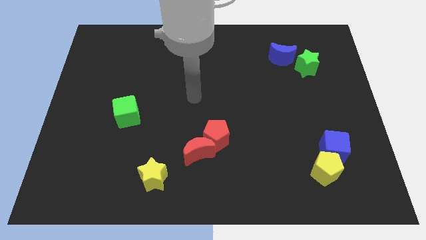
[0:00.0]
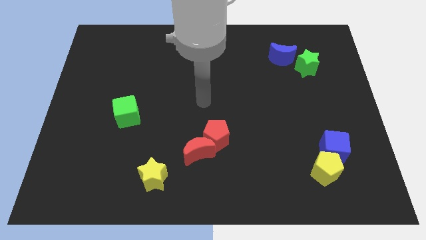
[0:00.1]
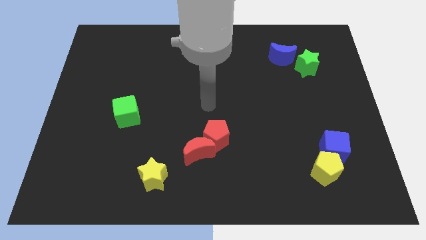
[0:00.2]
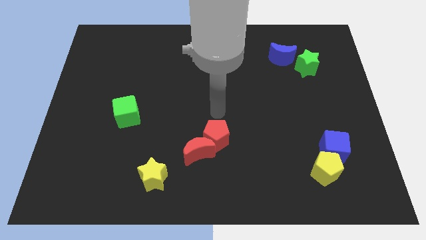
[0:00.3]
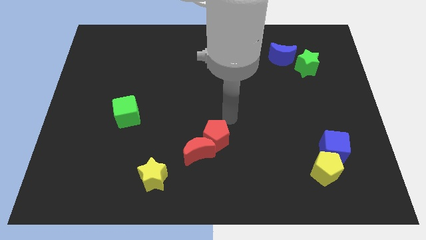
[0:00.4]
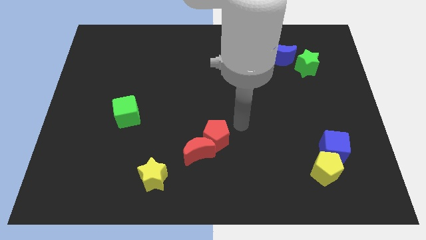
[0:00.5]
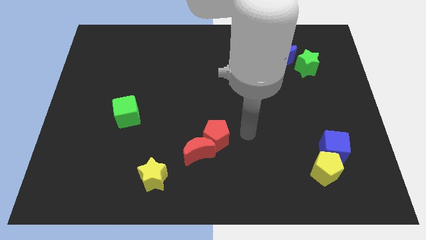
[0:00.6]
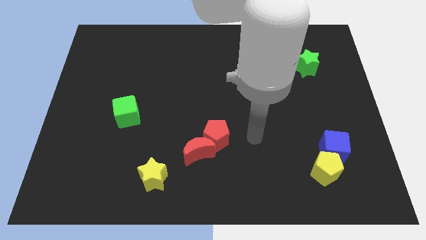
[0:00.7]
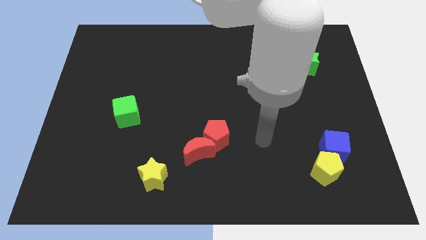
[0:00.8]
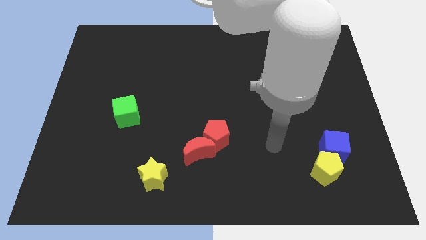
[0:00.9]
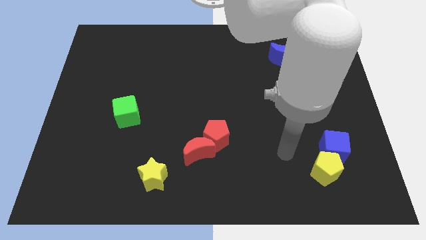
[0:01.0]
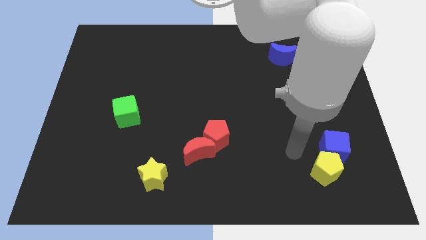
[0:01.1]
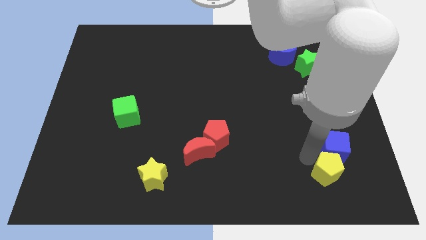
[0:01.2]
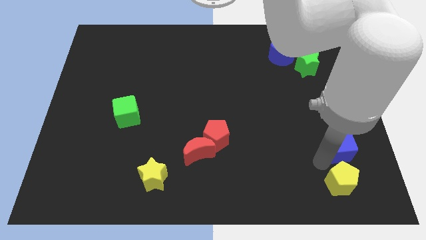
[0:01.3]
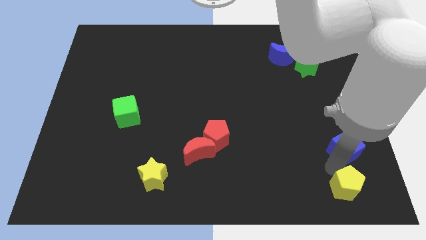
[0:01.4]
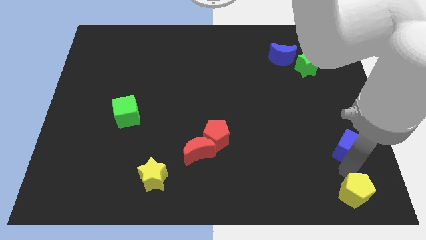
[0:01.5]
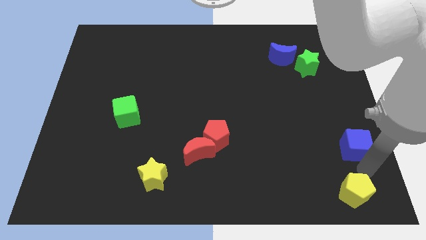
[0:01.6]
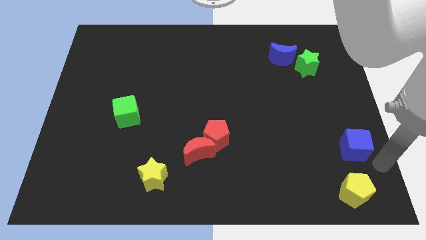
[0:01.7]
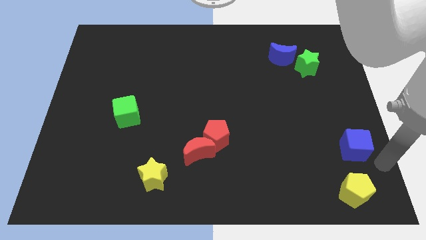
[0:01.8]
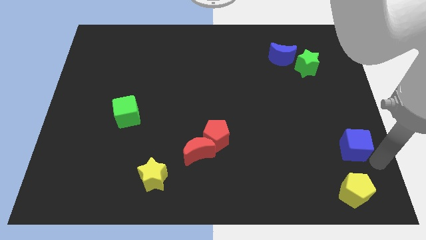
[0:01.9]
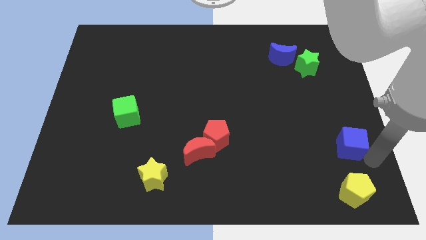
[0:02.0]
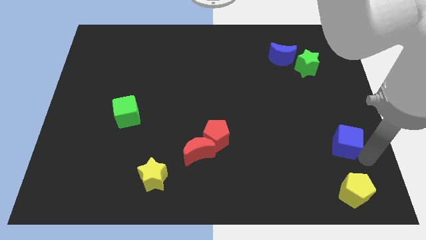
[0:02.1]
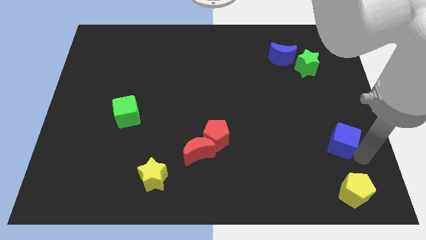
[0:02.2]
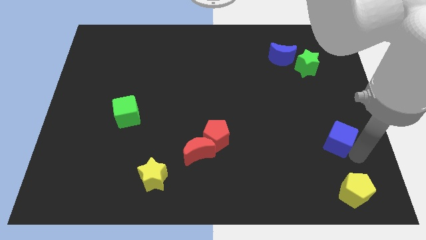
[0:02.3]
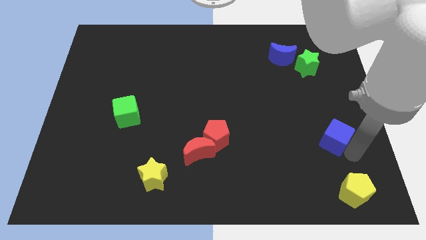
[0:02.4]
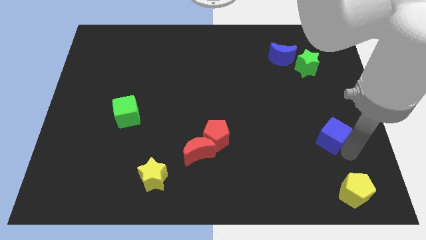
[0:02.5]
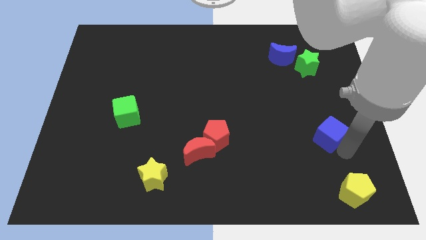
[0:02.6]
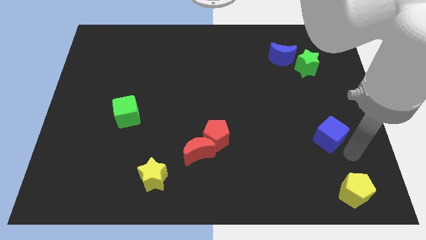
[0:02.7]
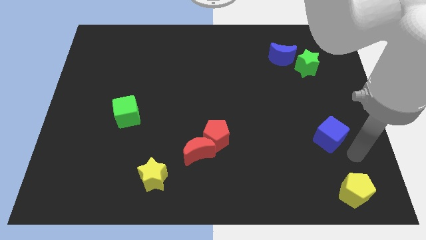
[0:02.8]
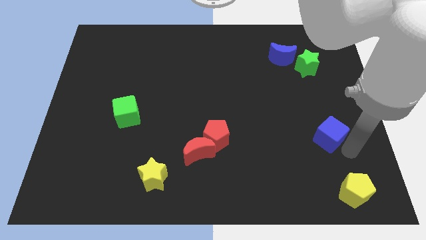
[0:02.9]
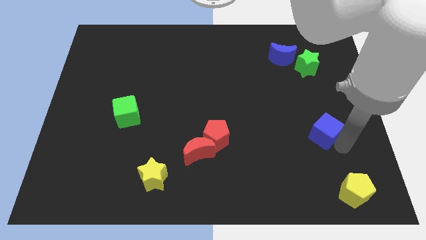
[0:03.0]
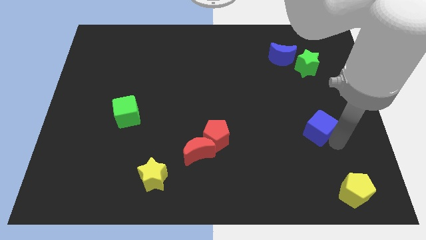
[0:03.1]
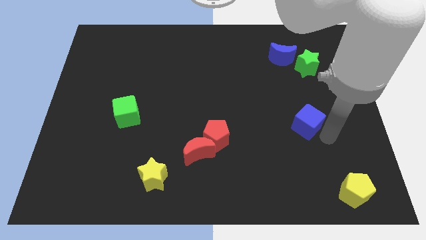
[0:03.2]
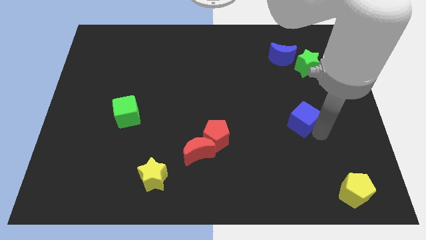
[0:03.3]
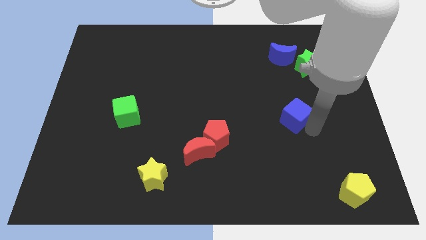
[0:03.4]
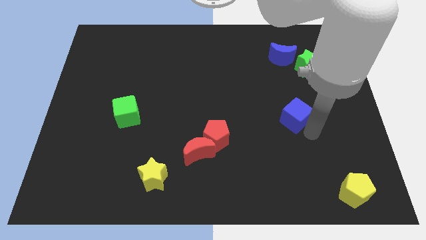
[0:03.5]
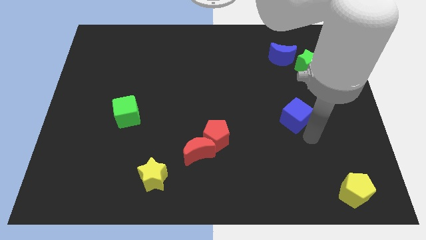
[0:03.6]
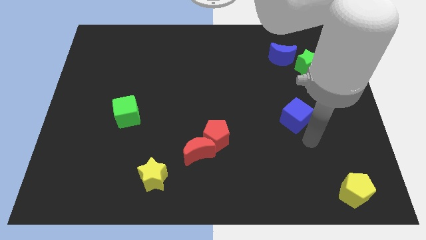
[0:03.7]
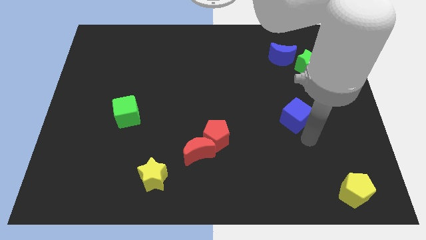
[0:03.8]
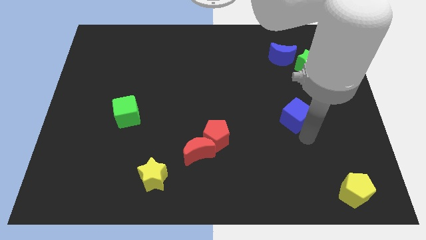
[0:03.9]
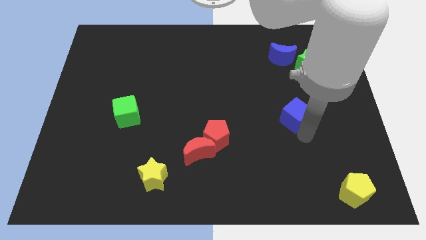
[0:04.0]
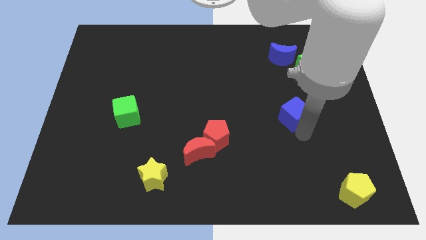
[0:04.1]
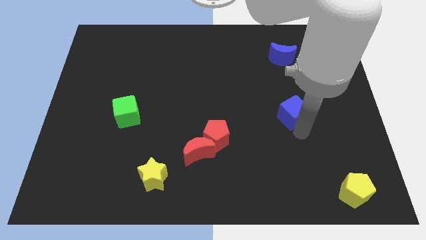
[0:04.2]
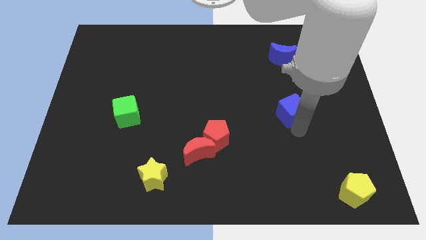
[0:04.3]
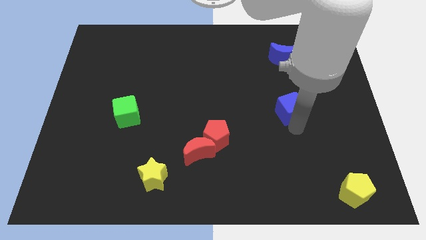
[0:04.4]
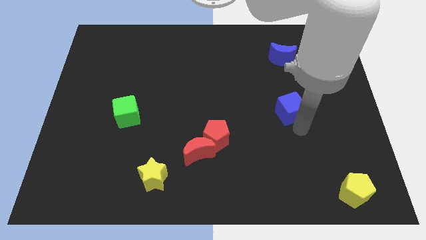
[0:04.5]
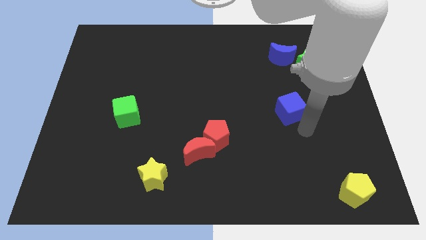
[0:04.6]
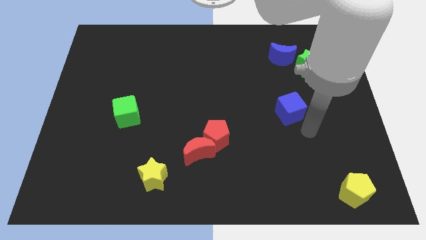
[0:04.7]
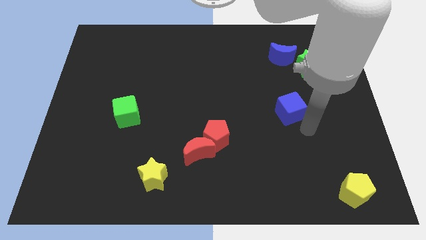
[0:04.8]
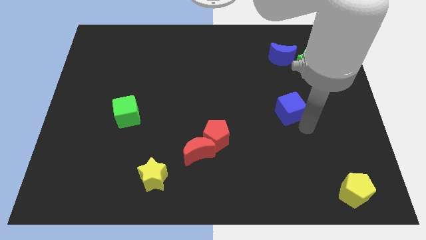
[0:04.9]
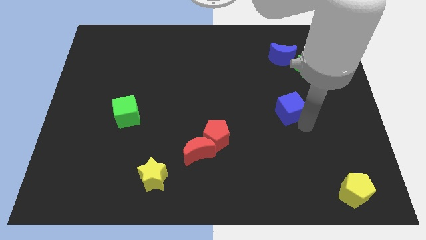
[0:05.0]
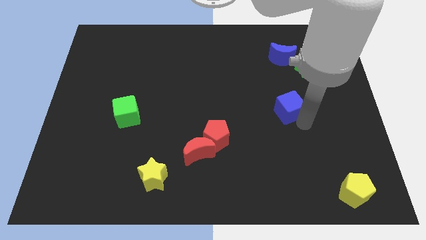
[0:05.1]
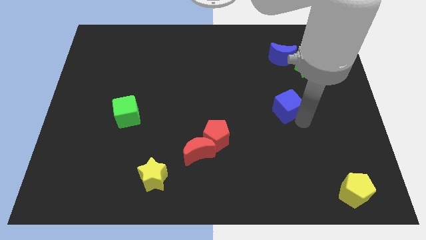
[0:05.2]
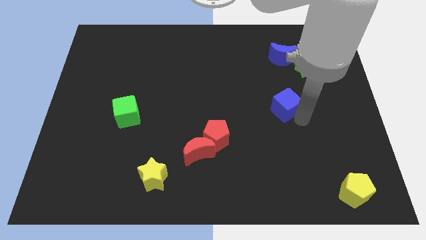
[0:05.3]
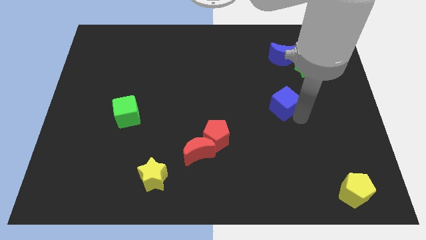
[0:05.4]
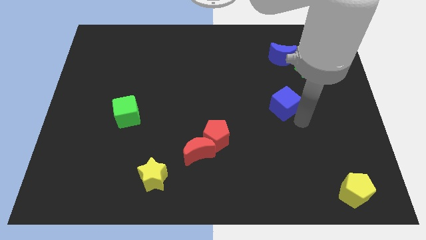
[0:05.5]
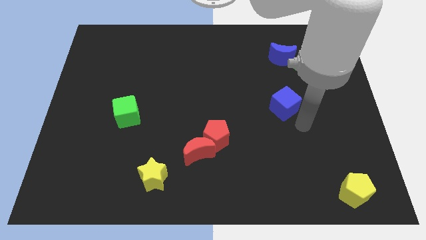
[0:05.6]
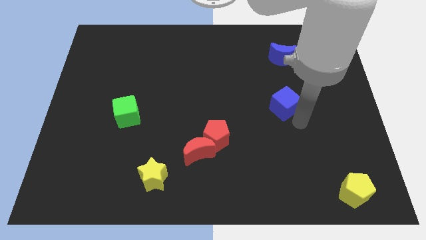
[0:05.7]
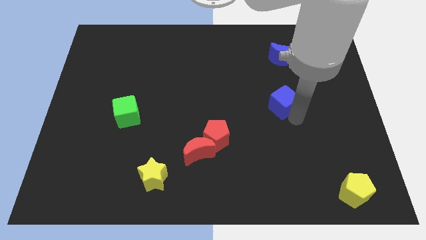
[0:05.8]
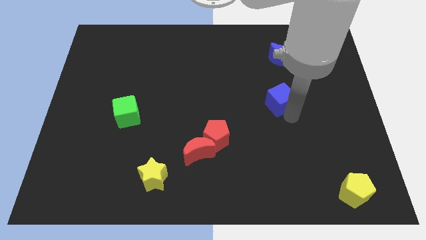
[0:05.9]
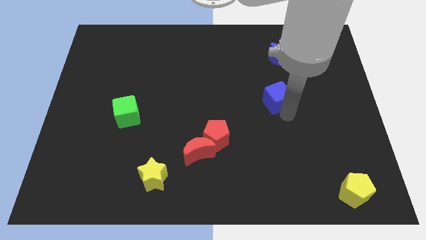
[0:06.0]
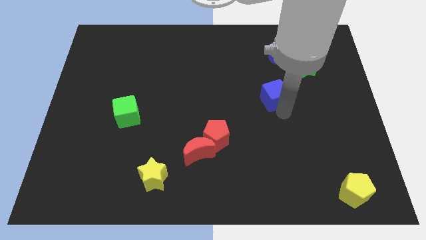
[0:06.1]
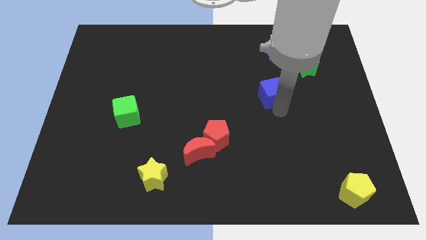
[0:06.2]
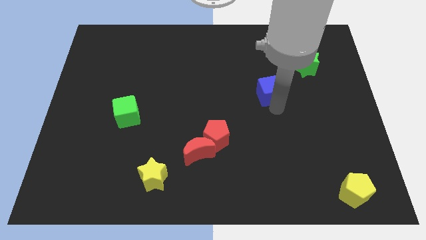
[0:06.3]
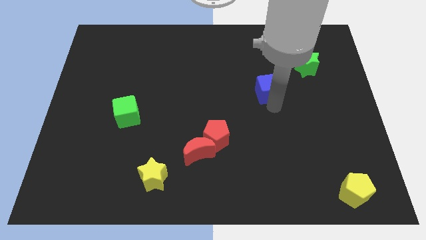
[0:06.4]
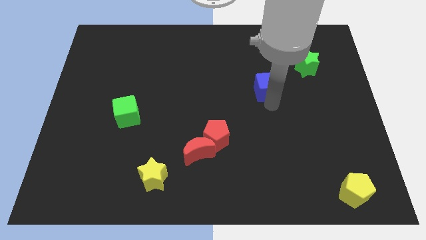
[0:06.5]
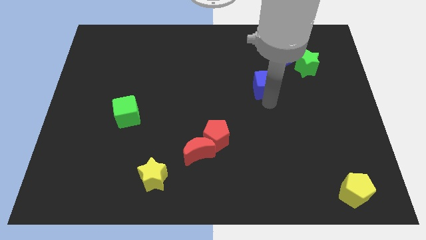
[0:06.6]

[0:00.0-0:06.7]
slide the blue cube to the bottom left of the blue moon

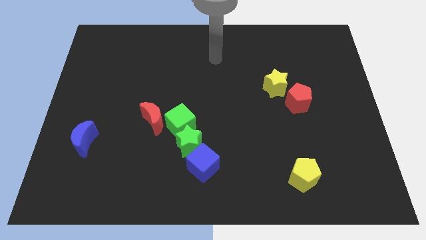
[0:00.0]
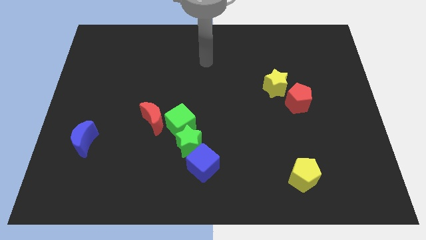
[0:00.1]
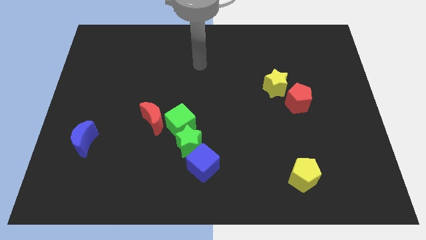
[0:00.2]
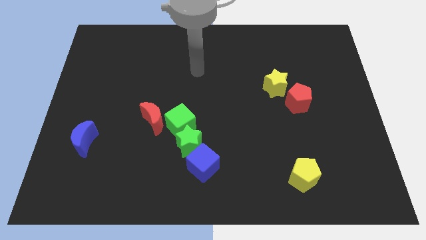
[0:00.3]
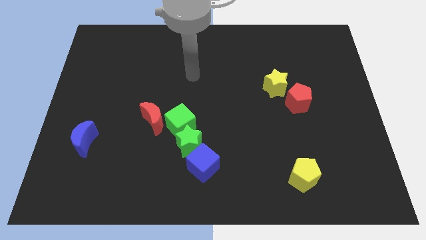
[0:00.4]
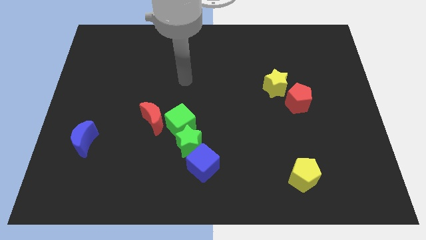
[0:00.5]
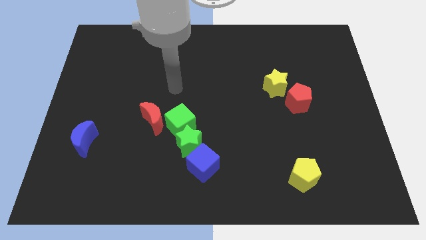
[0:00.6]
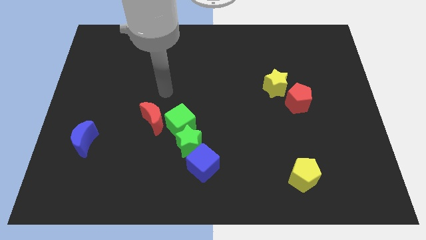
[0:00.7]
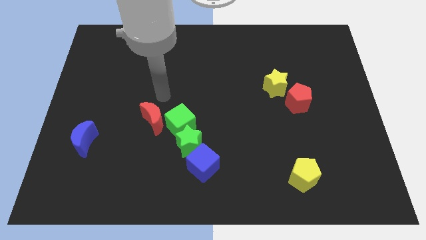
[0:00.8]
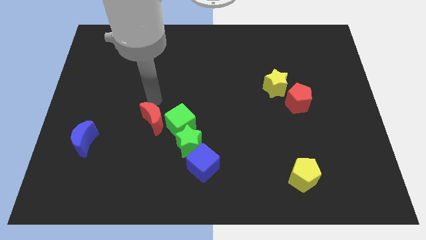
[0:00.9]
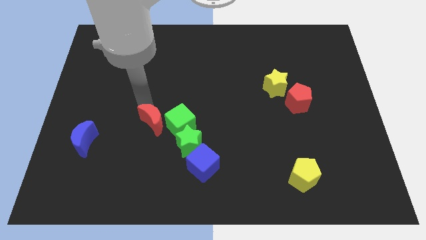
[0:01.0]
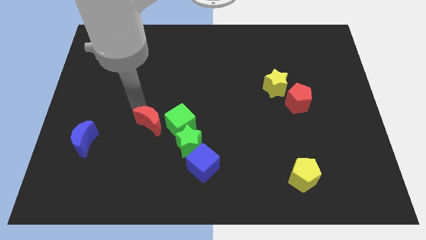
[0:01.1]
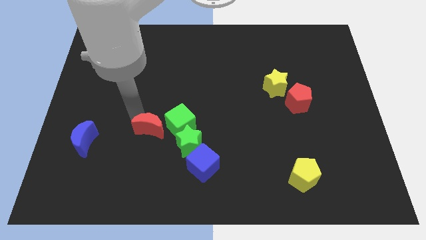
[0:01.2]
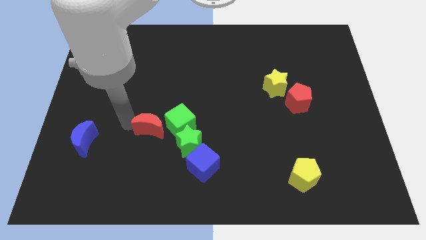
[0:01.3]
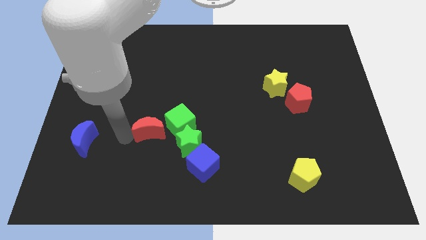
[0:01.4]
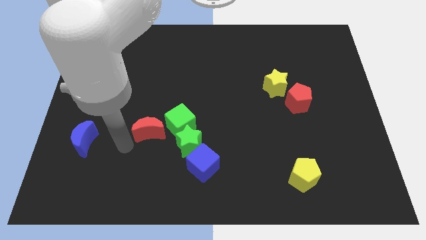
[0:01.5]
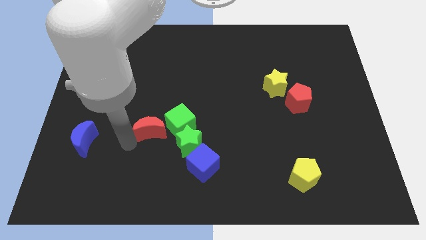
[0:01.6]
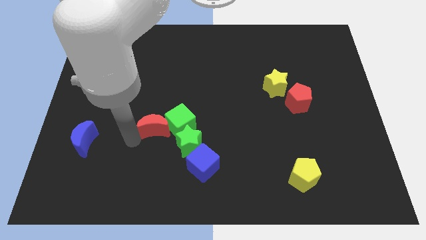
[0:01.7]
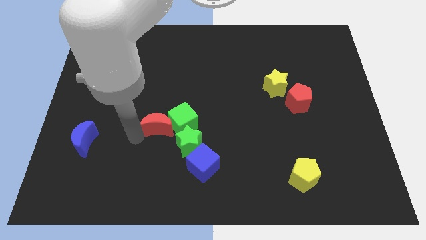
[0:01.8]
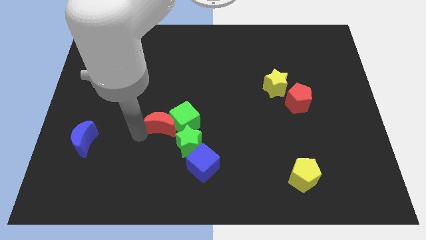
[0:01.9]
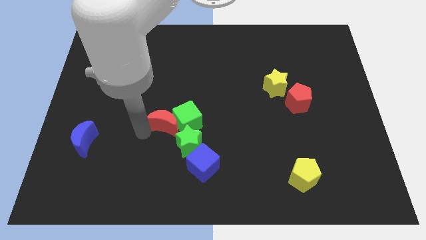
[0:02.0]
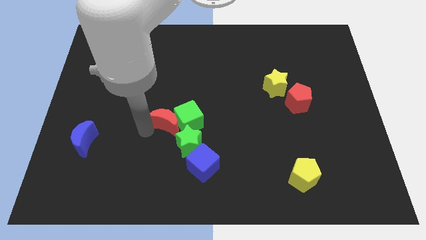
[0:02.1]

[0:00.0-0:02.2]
put the red moon to the top of the green star
